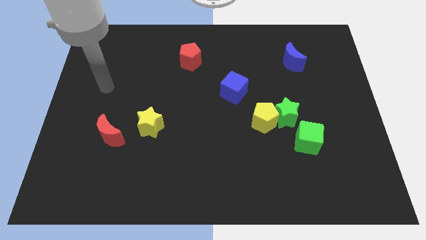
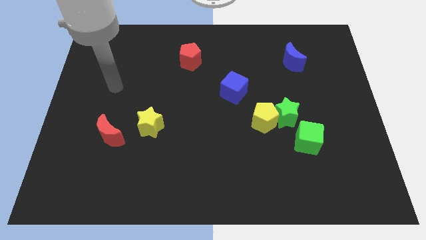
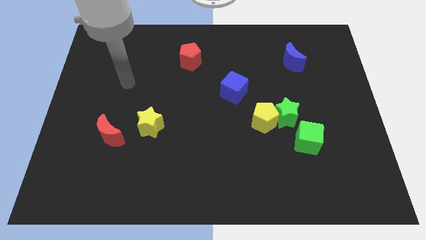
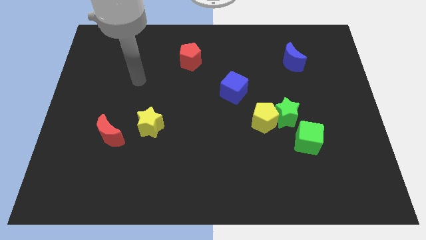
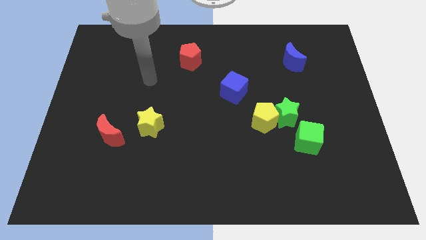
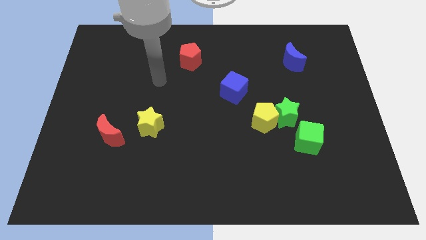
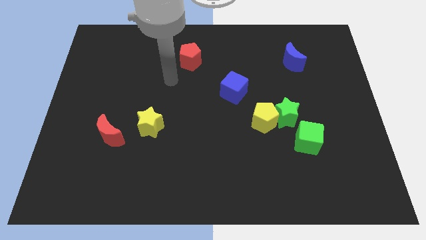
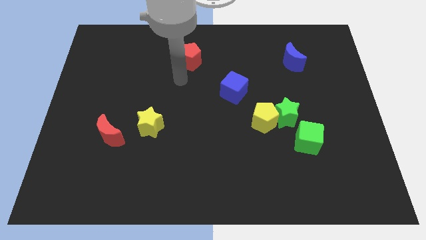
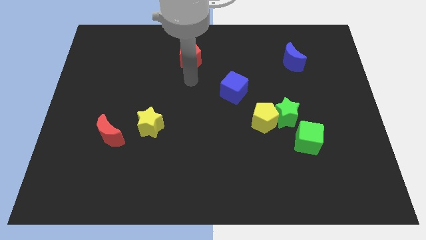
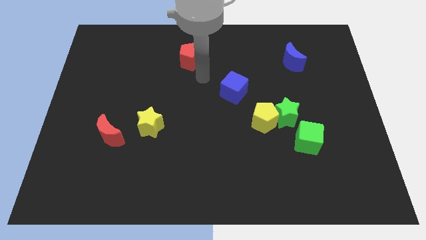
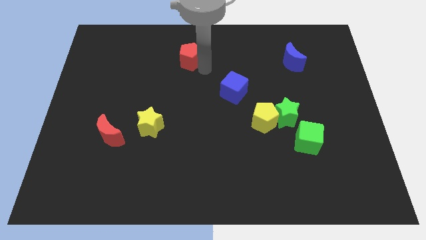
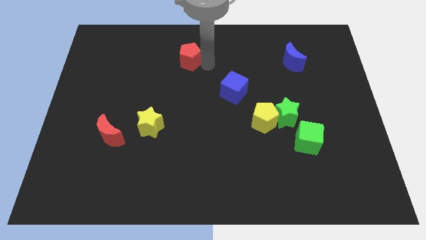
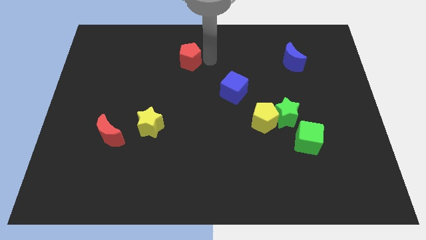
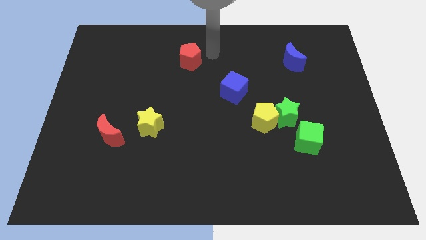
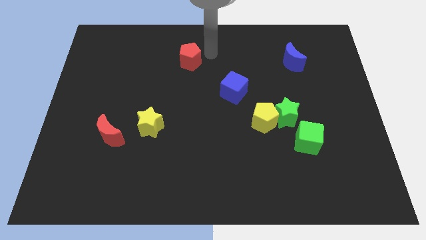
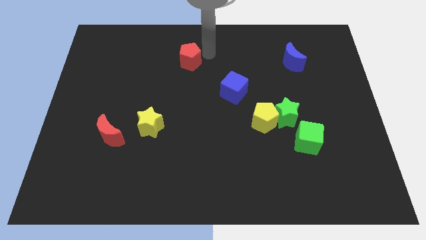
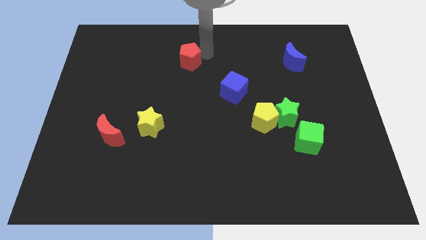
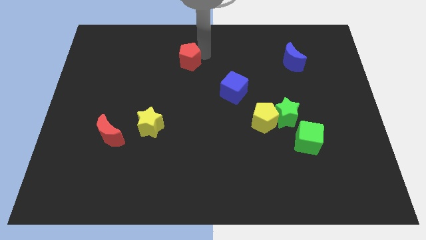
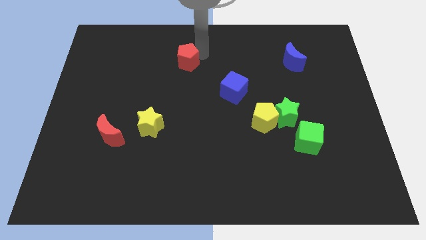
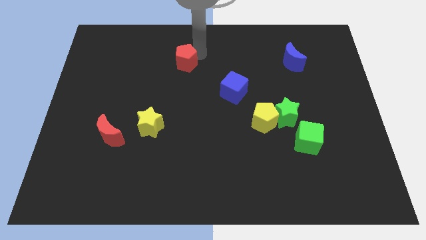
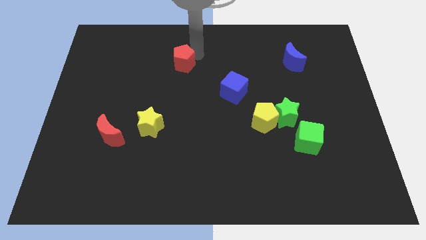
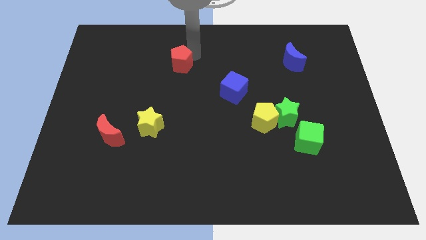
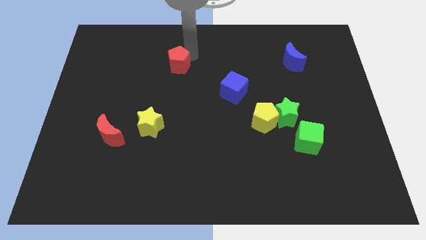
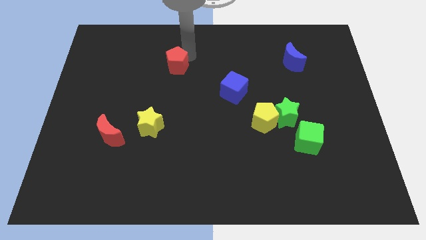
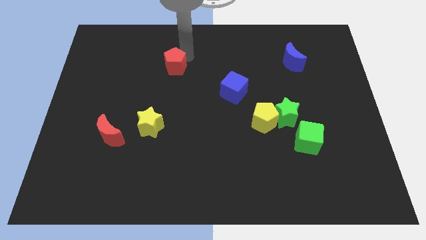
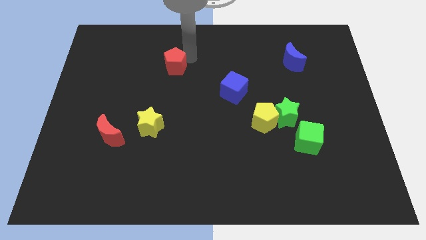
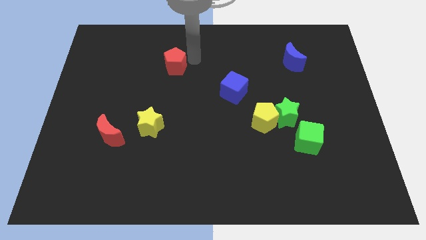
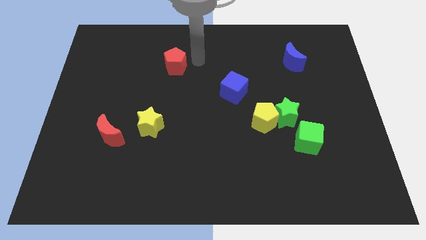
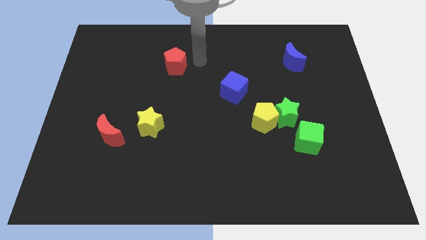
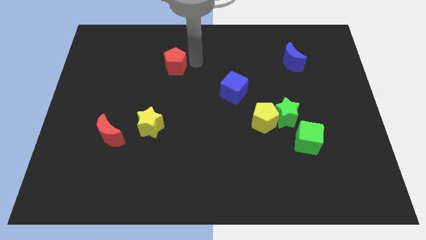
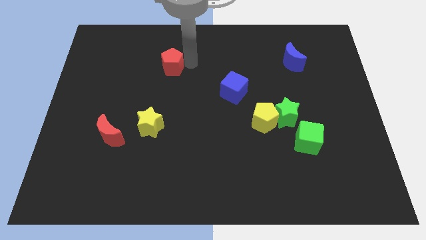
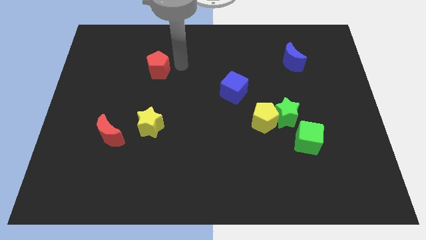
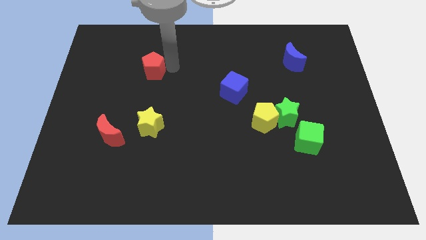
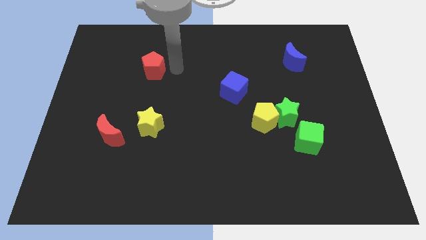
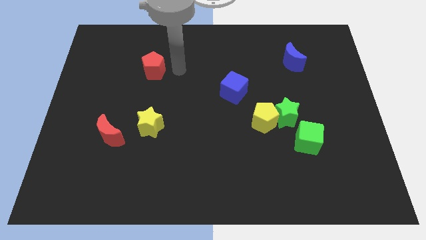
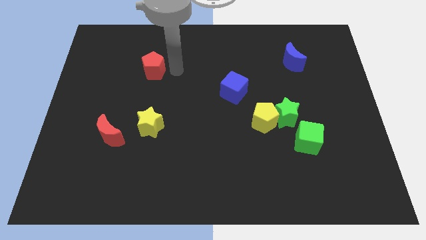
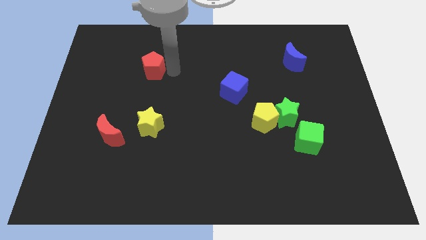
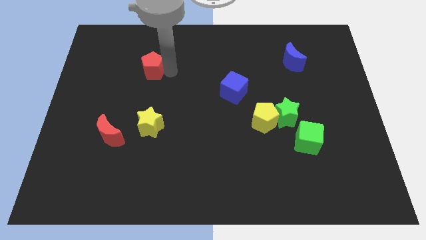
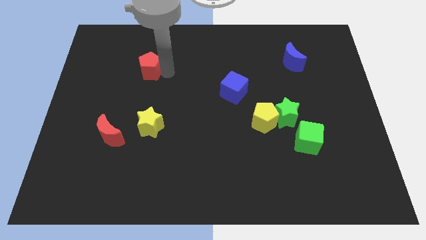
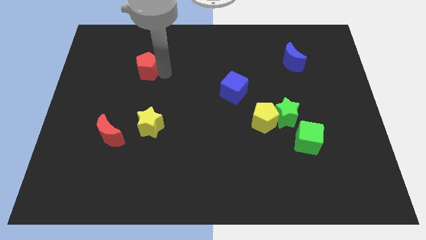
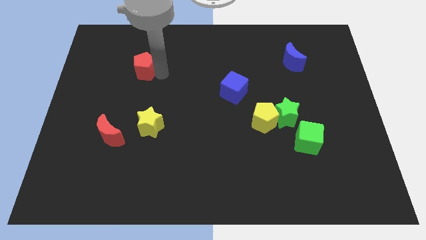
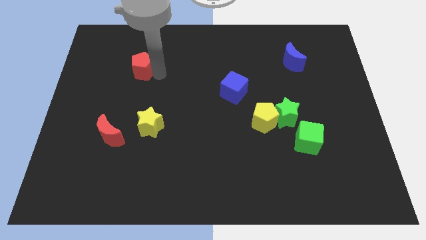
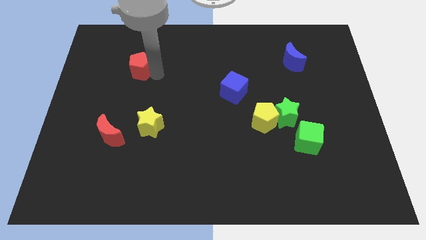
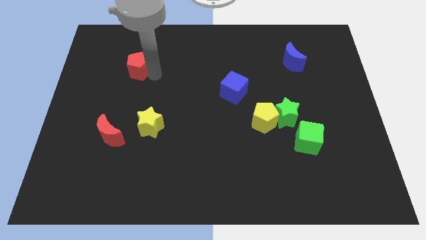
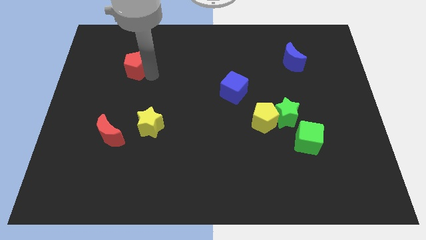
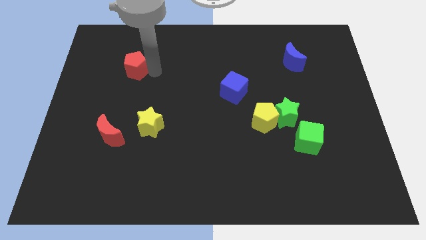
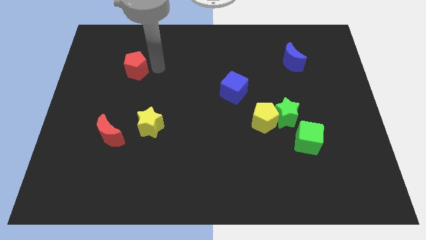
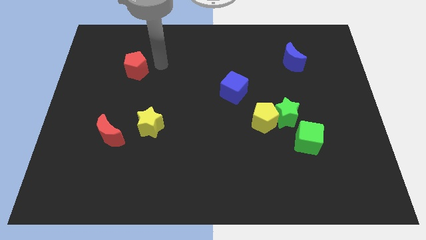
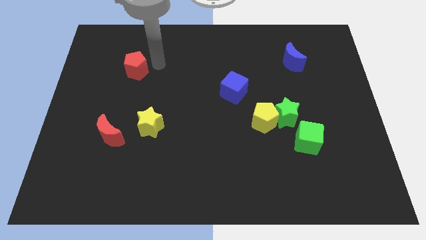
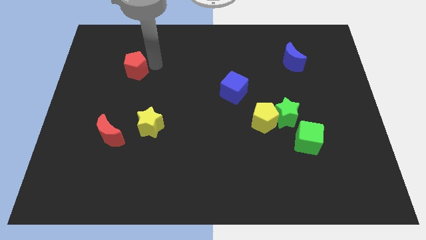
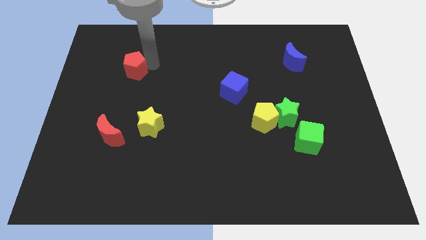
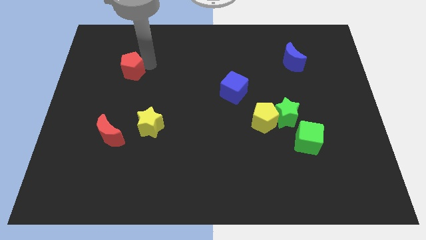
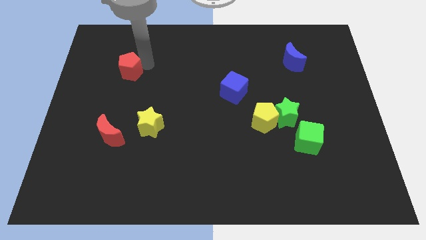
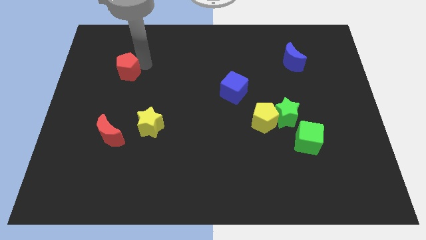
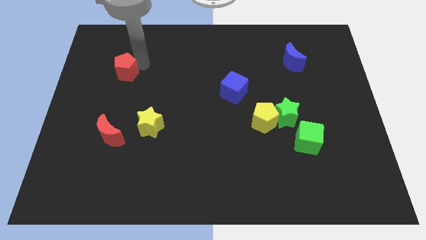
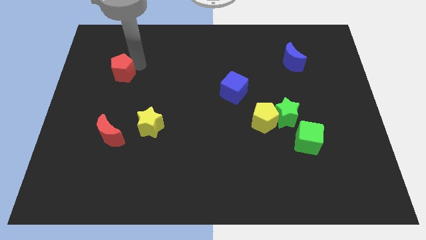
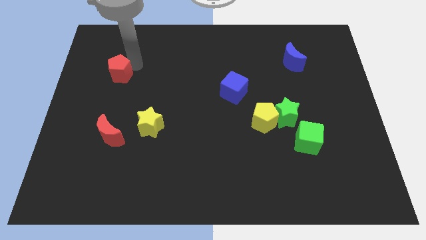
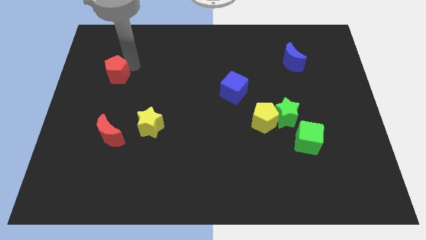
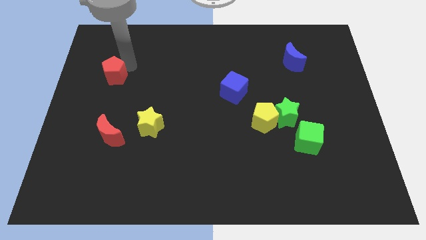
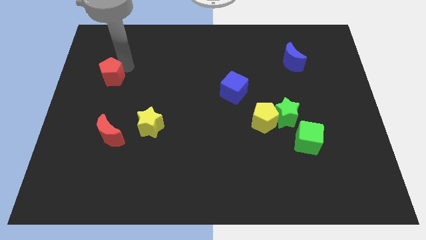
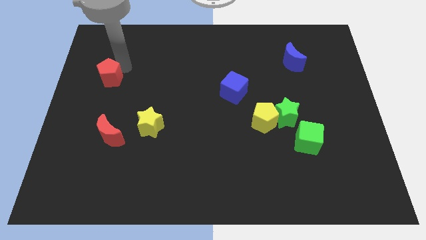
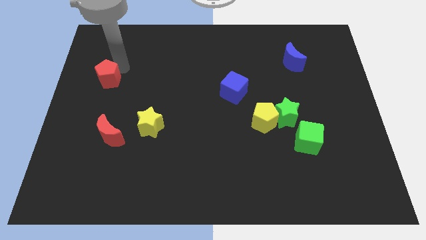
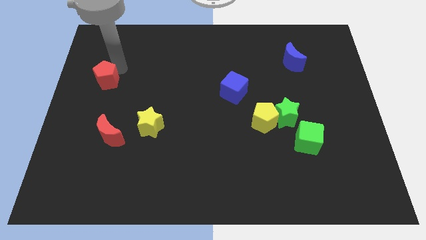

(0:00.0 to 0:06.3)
move the red pentagon to the left side of the board
